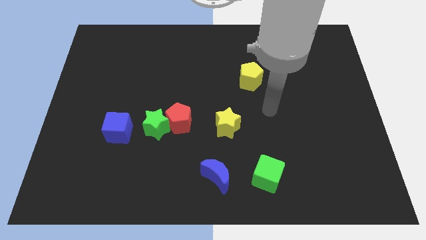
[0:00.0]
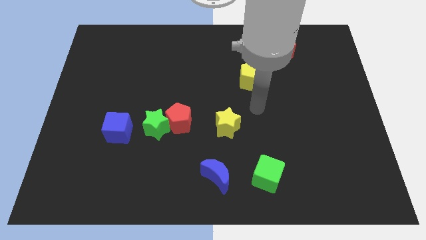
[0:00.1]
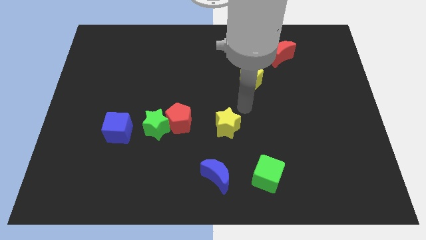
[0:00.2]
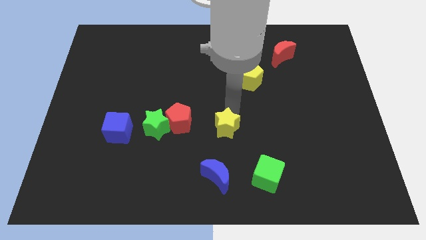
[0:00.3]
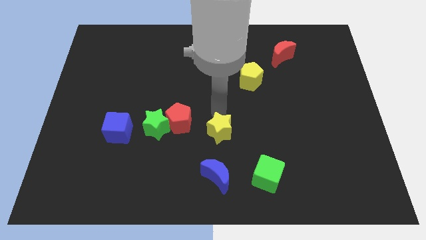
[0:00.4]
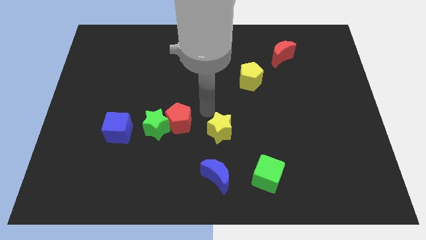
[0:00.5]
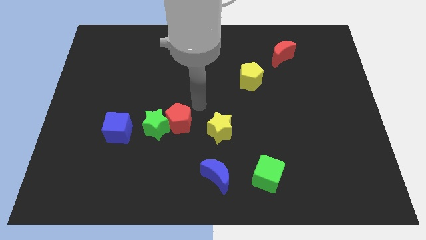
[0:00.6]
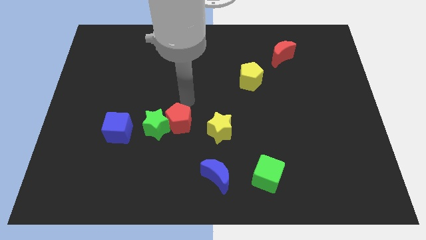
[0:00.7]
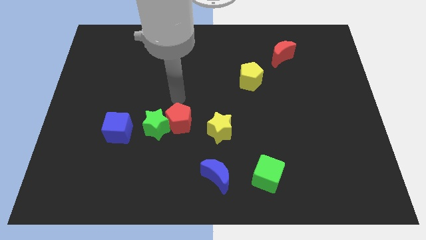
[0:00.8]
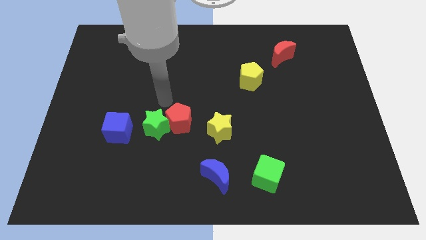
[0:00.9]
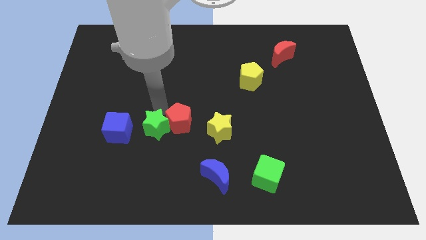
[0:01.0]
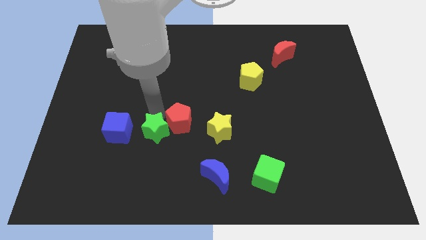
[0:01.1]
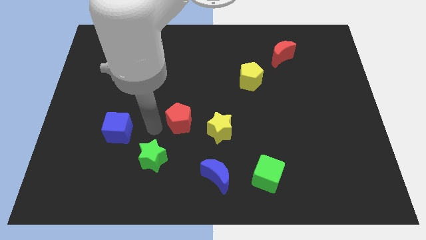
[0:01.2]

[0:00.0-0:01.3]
pull the red pentagon apart from the green star

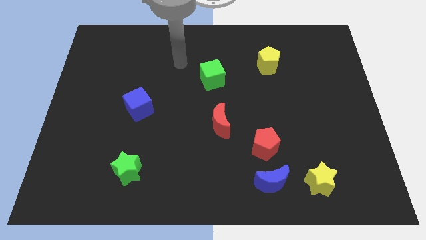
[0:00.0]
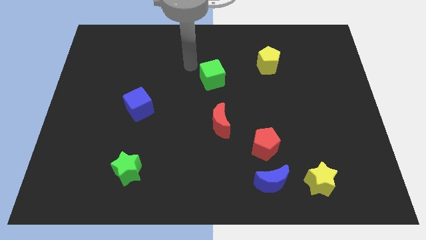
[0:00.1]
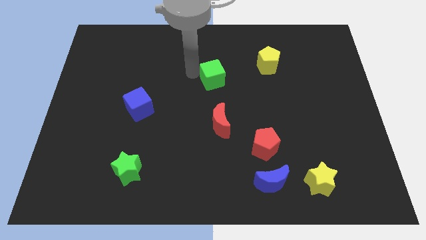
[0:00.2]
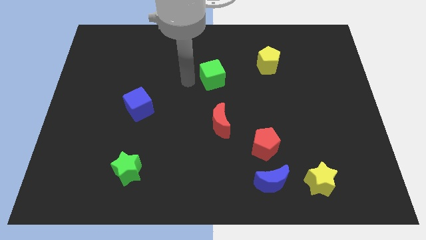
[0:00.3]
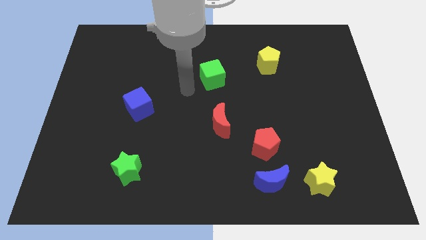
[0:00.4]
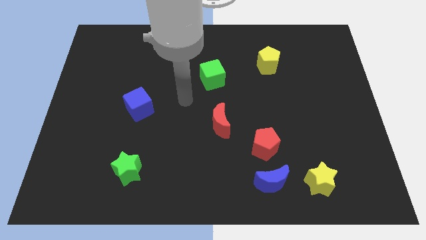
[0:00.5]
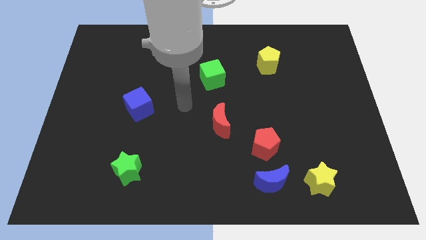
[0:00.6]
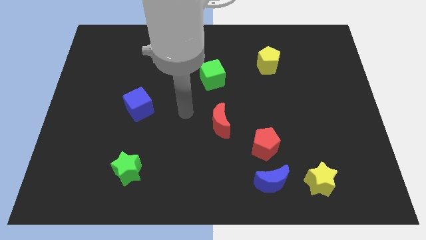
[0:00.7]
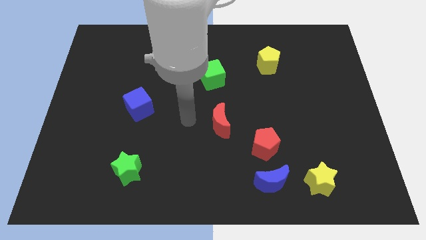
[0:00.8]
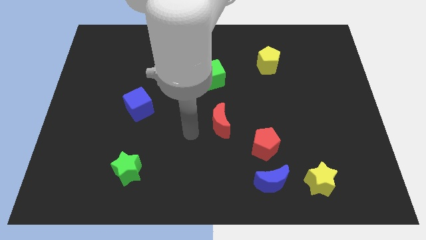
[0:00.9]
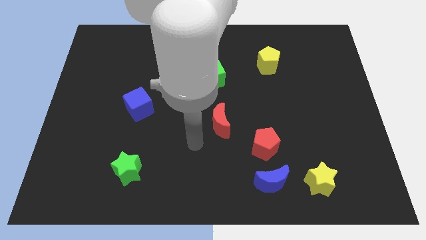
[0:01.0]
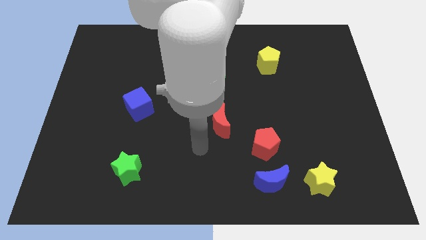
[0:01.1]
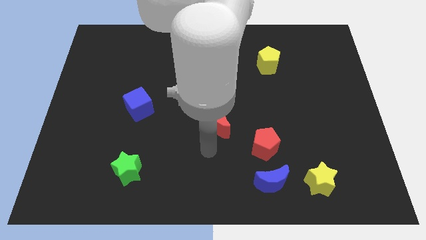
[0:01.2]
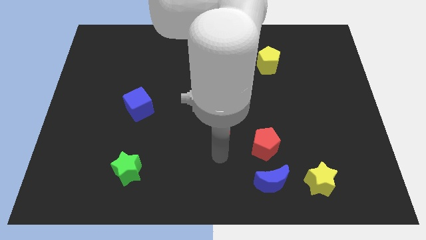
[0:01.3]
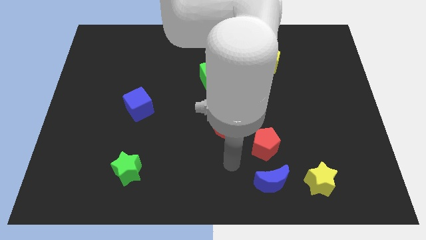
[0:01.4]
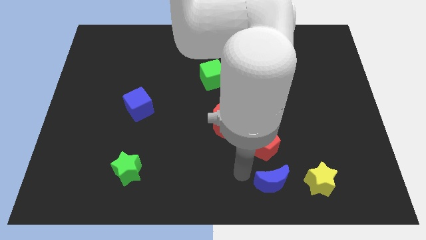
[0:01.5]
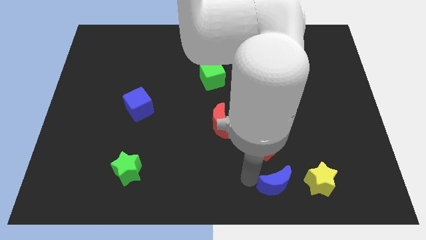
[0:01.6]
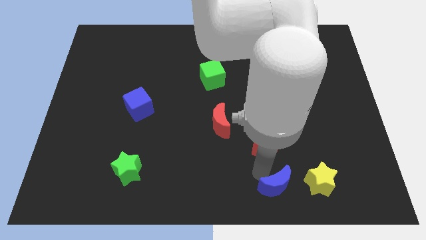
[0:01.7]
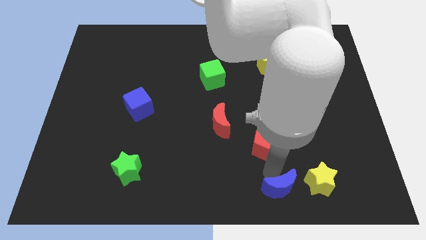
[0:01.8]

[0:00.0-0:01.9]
move the red pentagon away from the blue moon

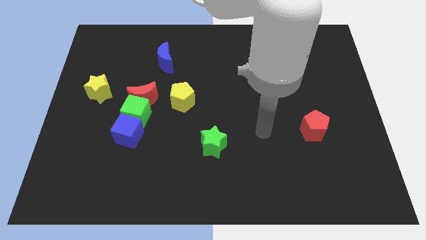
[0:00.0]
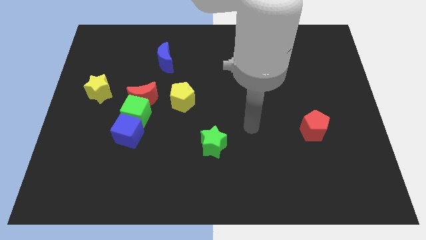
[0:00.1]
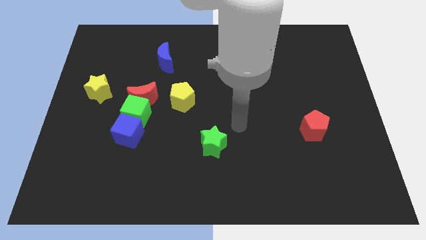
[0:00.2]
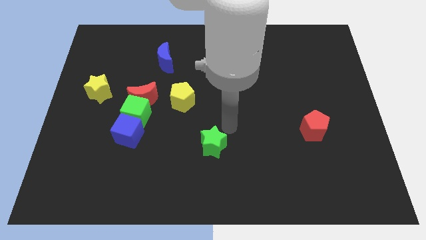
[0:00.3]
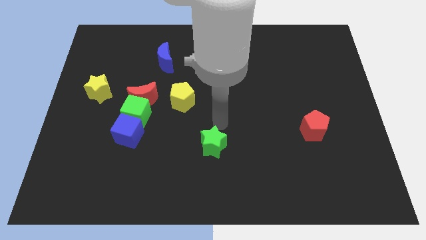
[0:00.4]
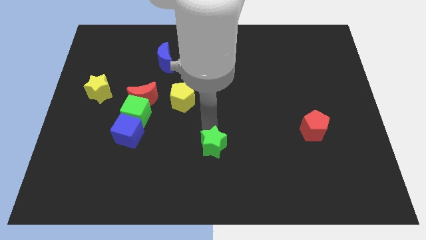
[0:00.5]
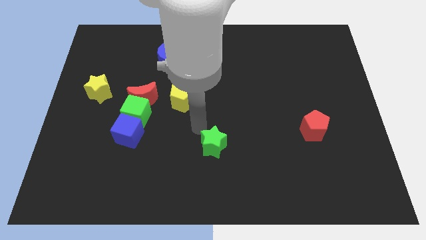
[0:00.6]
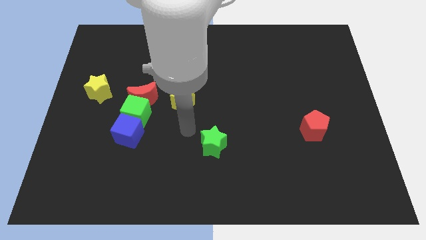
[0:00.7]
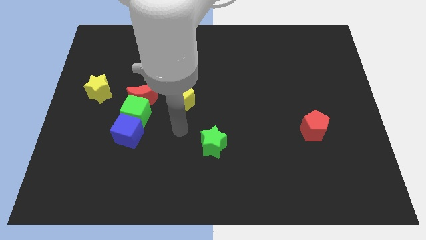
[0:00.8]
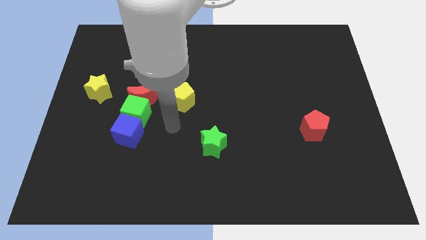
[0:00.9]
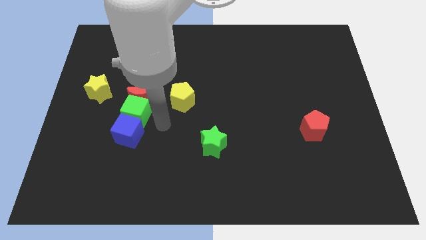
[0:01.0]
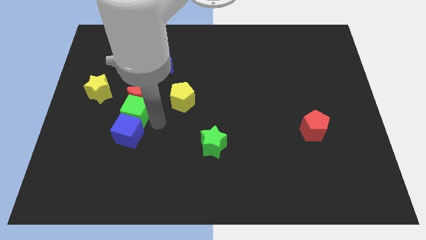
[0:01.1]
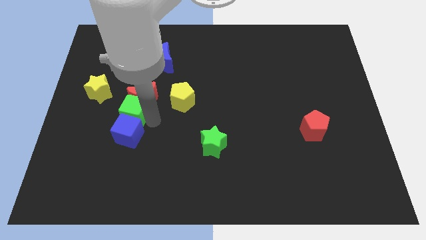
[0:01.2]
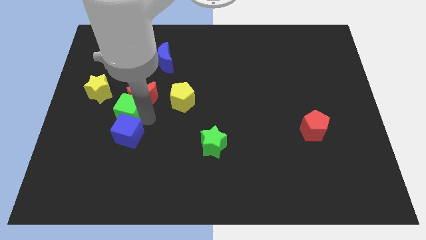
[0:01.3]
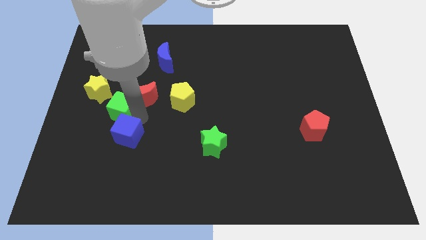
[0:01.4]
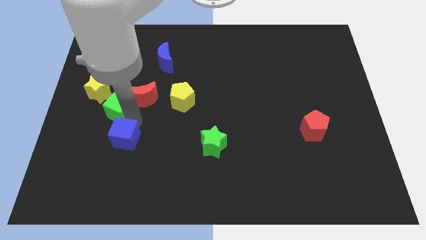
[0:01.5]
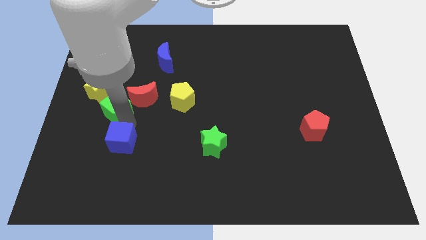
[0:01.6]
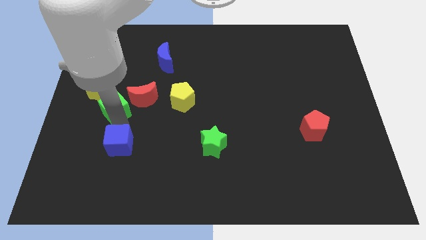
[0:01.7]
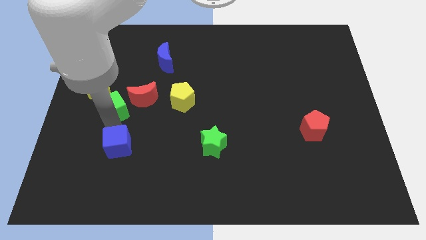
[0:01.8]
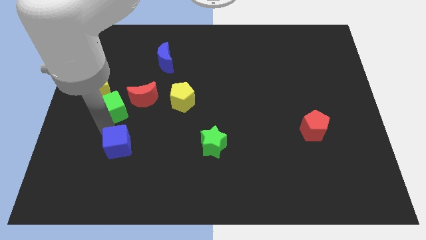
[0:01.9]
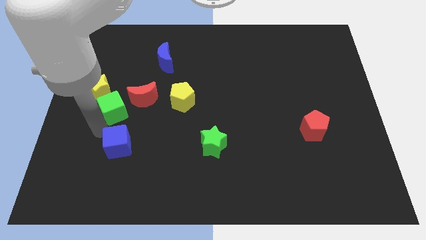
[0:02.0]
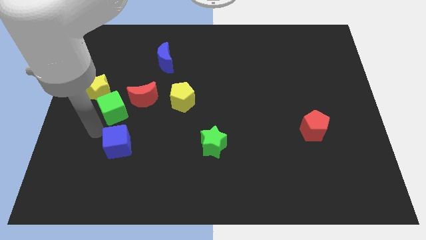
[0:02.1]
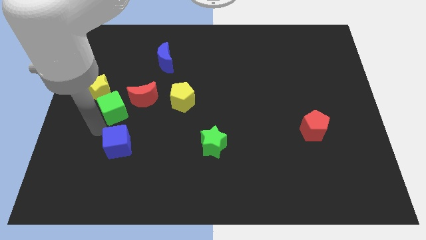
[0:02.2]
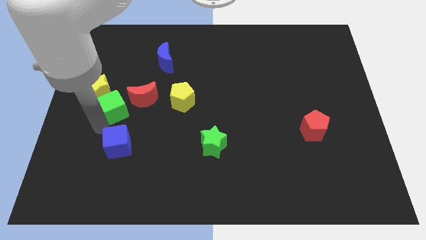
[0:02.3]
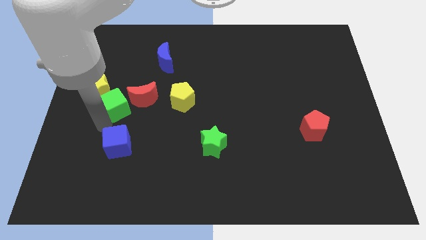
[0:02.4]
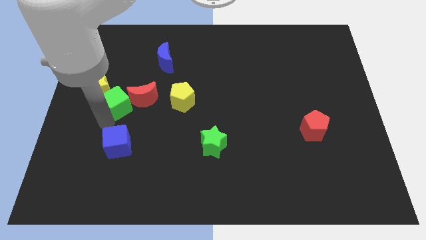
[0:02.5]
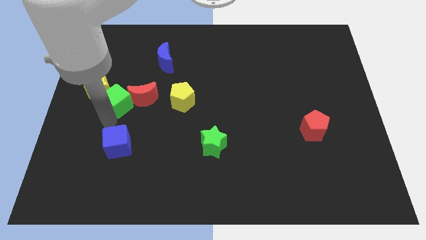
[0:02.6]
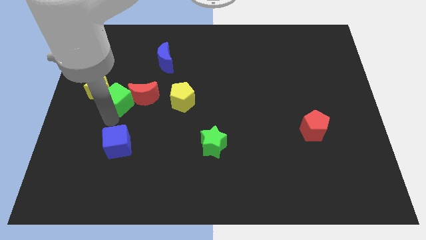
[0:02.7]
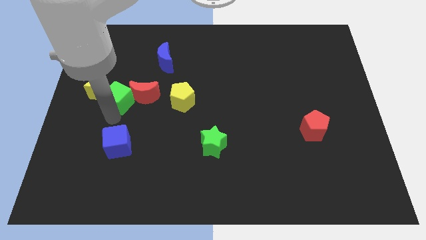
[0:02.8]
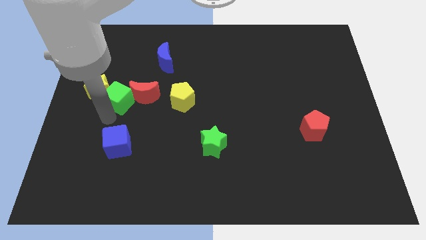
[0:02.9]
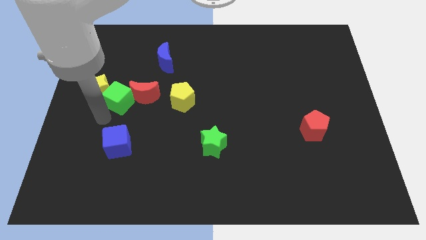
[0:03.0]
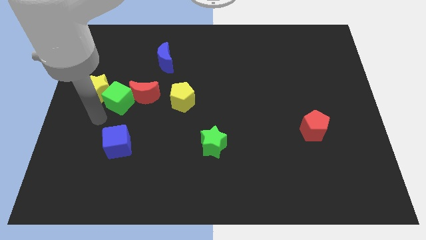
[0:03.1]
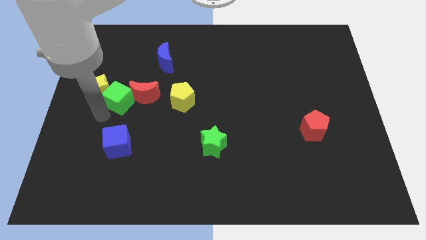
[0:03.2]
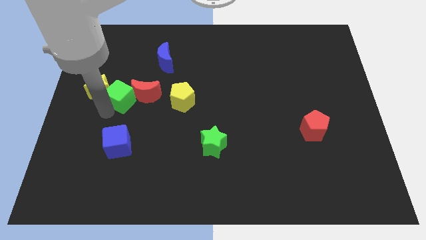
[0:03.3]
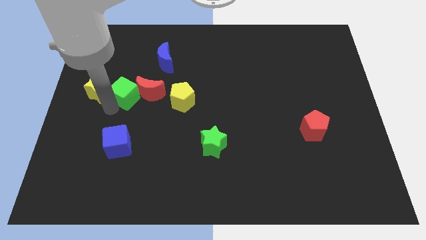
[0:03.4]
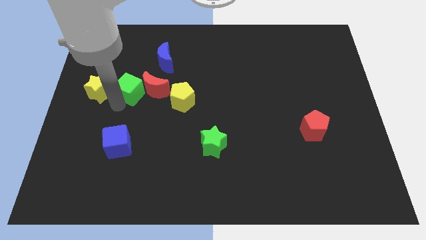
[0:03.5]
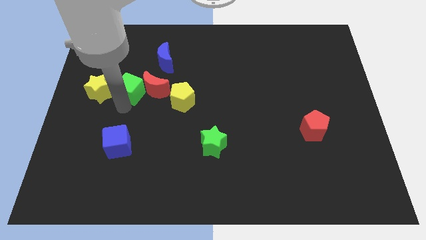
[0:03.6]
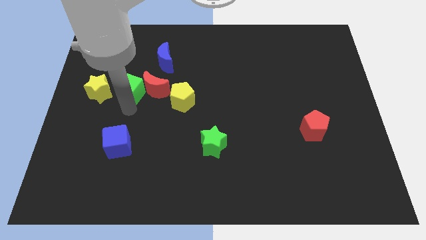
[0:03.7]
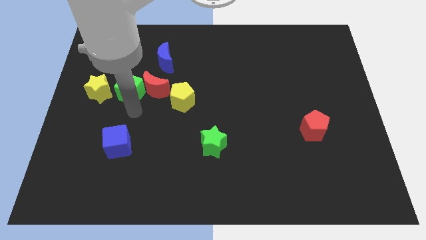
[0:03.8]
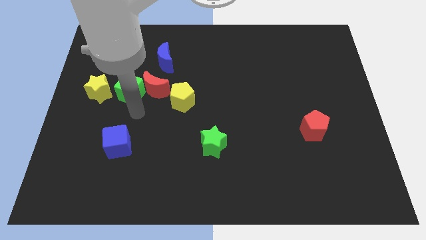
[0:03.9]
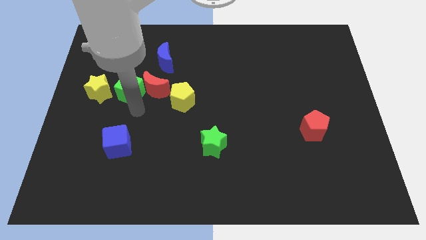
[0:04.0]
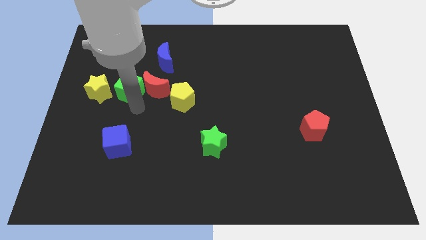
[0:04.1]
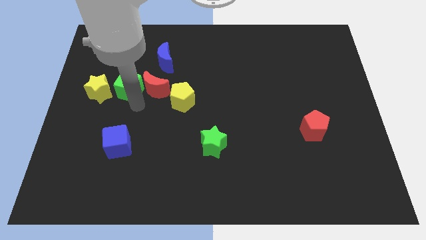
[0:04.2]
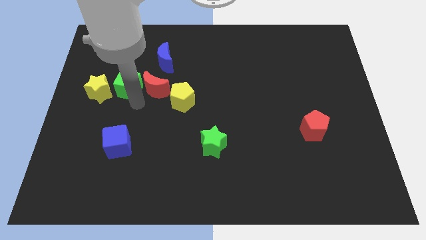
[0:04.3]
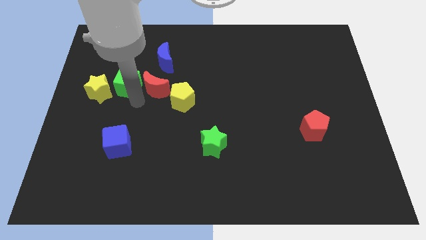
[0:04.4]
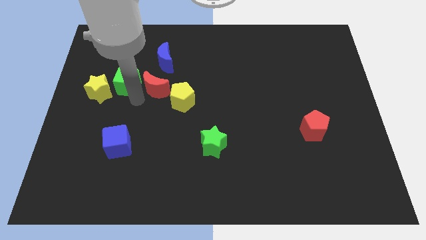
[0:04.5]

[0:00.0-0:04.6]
move the green cube away from the red moon and blue cube

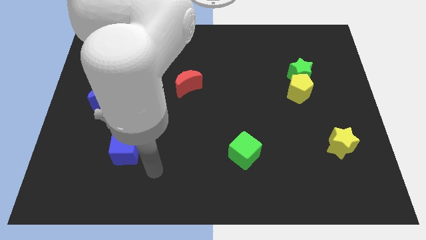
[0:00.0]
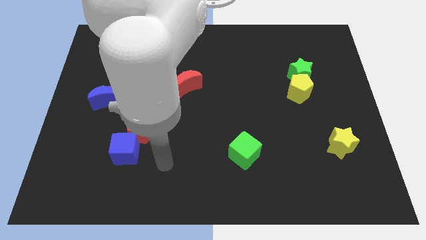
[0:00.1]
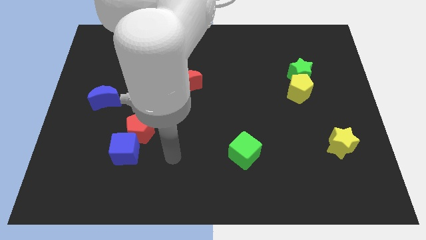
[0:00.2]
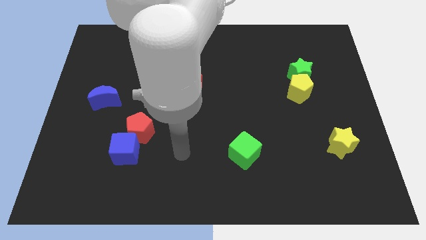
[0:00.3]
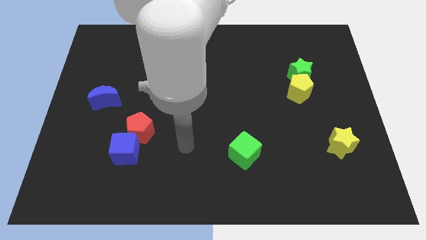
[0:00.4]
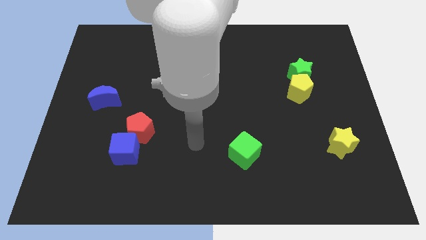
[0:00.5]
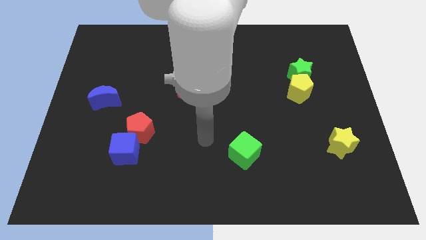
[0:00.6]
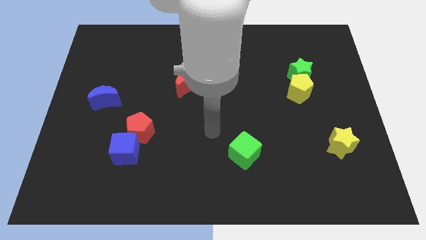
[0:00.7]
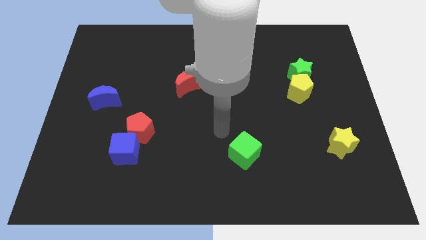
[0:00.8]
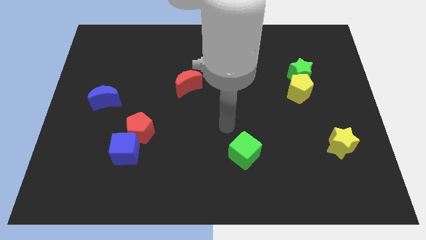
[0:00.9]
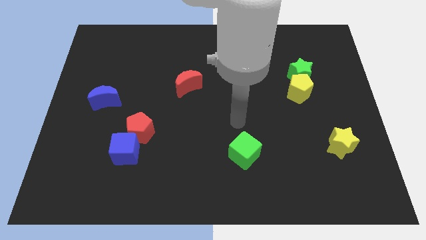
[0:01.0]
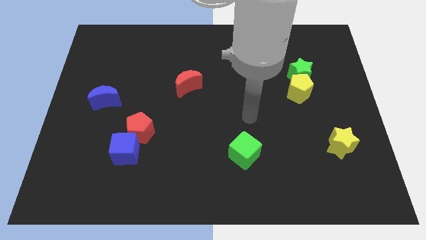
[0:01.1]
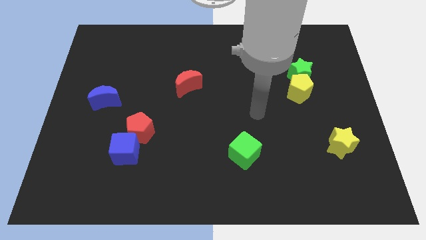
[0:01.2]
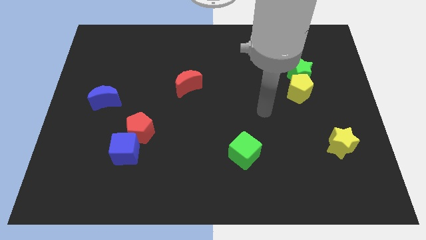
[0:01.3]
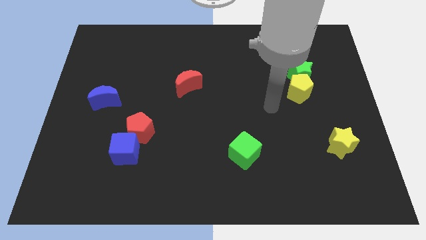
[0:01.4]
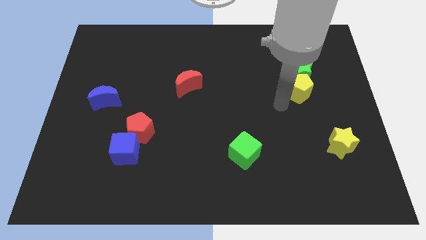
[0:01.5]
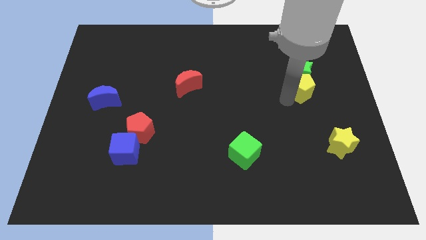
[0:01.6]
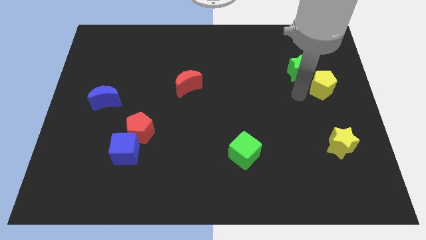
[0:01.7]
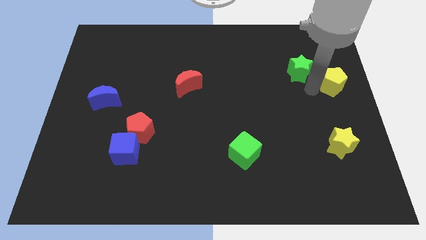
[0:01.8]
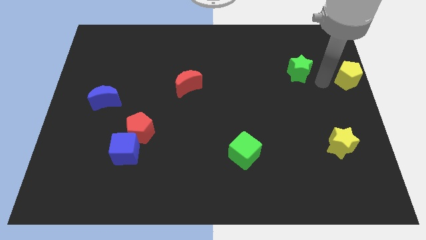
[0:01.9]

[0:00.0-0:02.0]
move the green star away from the yellow pentagon
